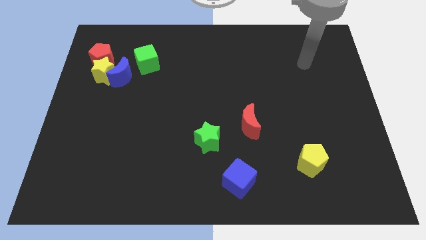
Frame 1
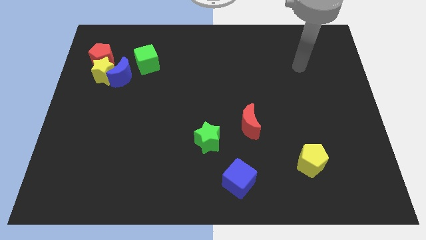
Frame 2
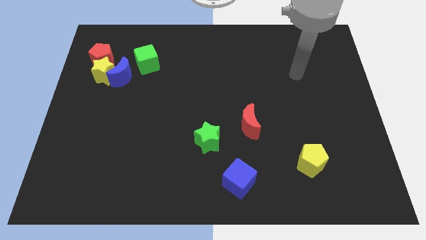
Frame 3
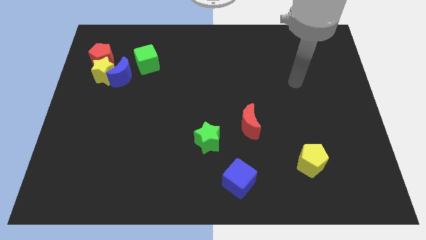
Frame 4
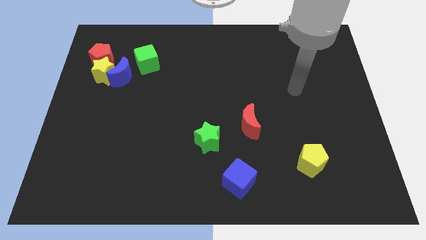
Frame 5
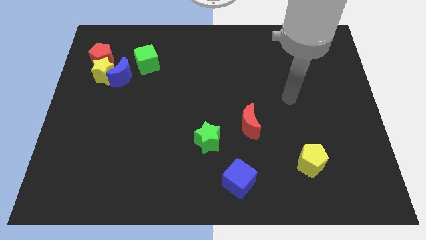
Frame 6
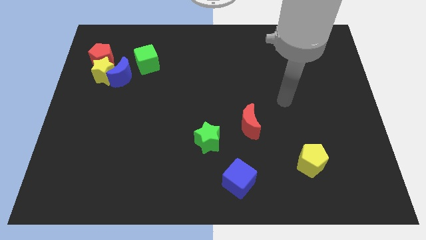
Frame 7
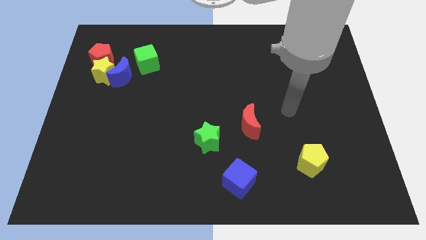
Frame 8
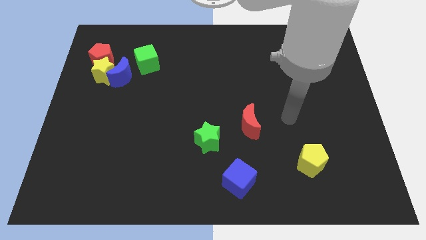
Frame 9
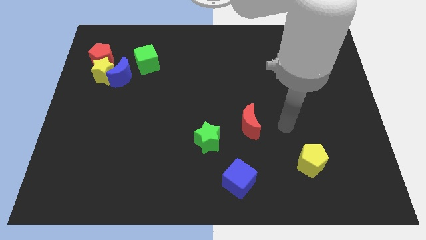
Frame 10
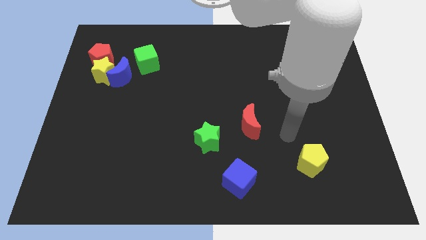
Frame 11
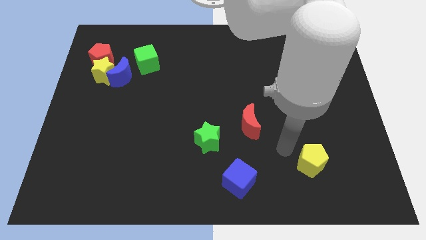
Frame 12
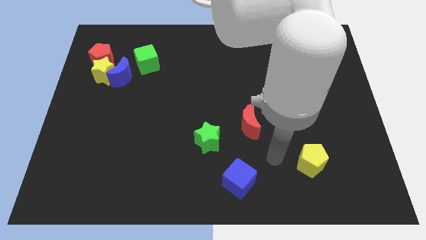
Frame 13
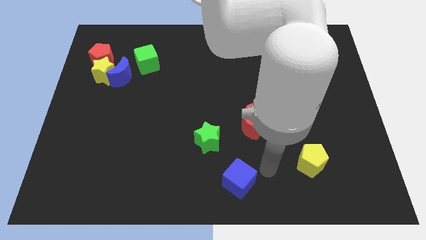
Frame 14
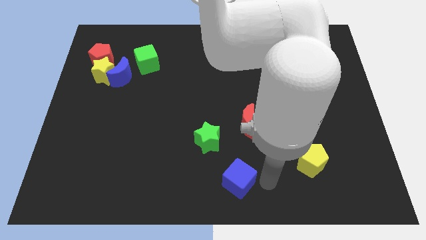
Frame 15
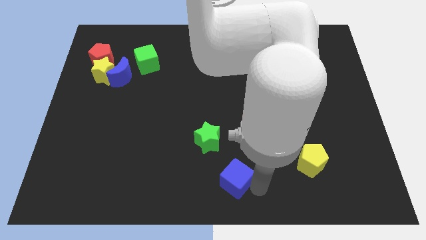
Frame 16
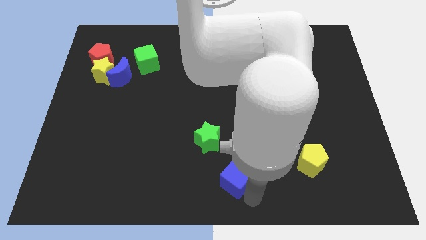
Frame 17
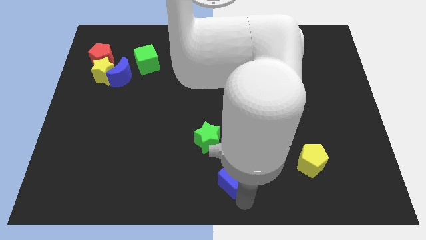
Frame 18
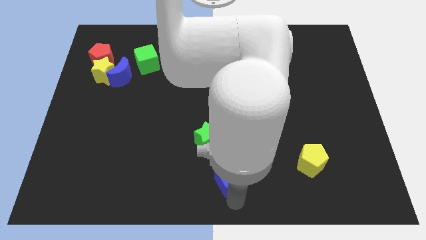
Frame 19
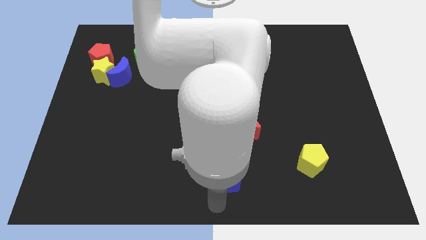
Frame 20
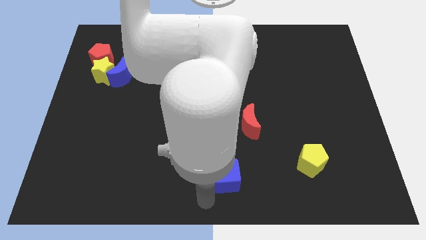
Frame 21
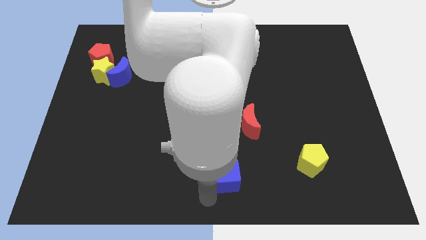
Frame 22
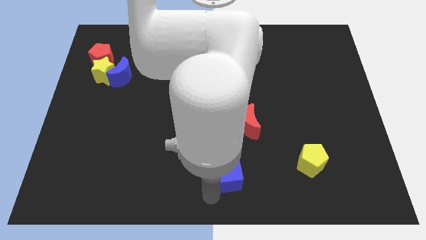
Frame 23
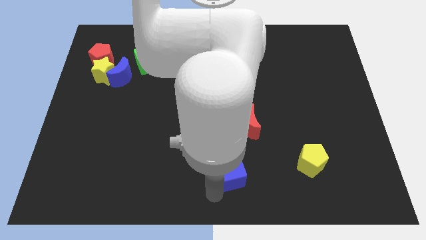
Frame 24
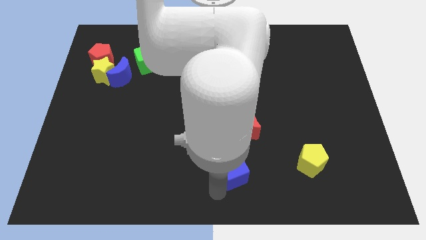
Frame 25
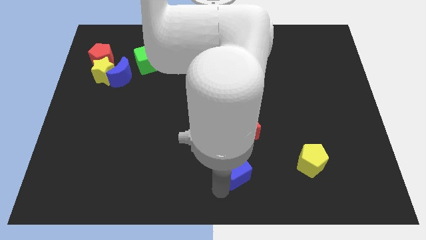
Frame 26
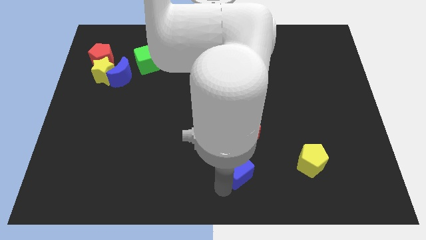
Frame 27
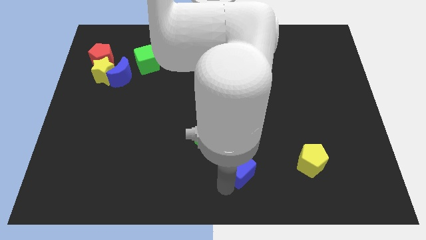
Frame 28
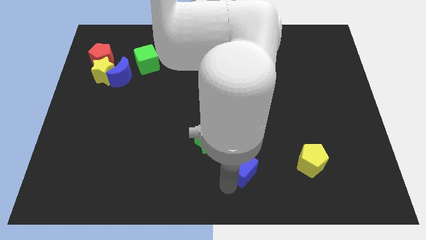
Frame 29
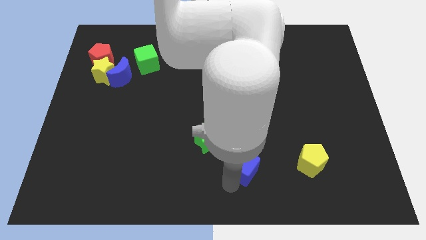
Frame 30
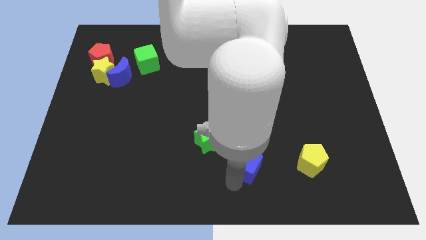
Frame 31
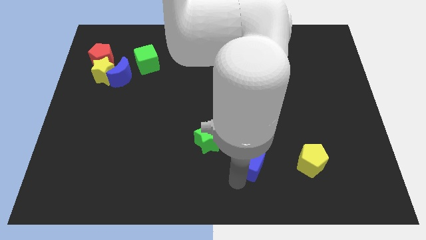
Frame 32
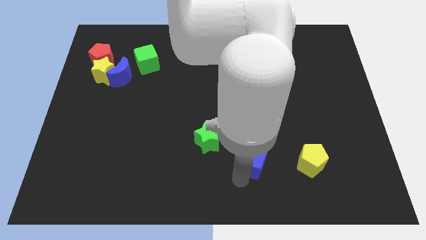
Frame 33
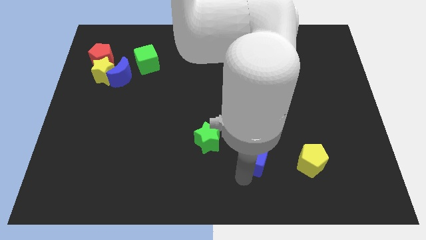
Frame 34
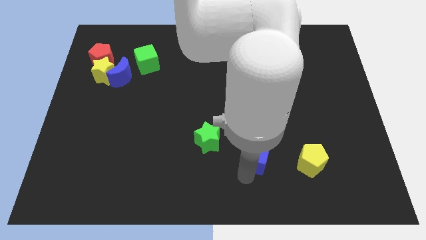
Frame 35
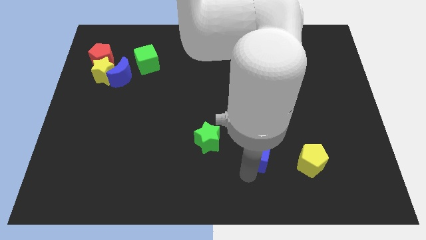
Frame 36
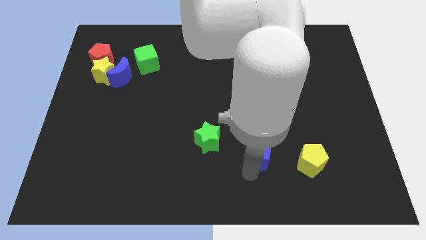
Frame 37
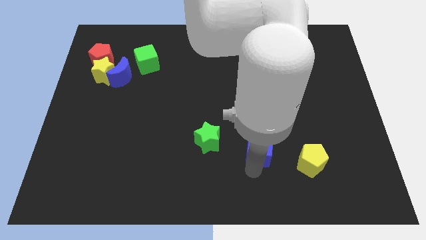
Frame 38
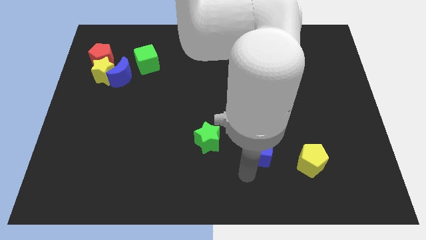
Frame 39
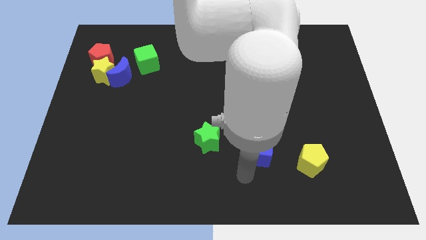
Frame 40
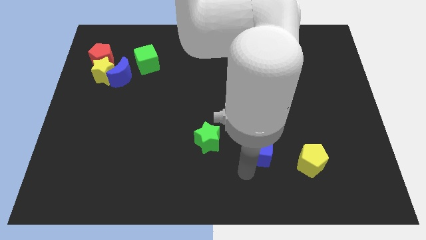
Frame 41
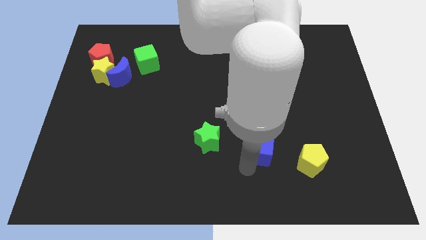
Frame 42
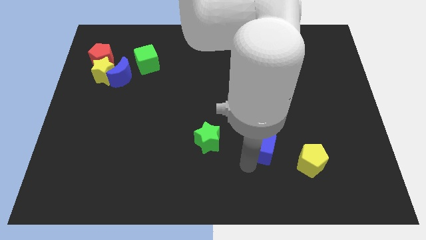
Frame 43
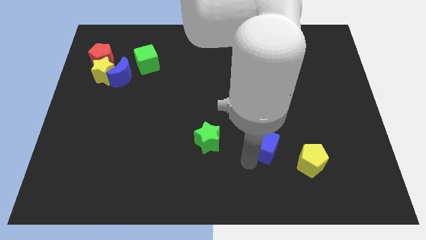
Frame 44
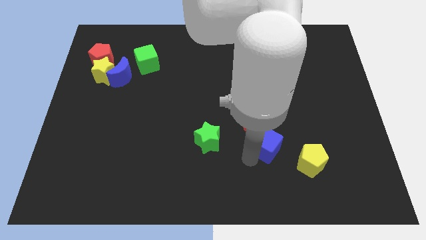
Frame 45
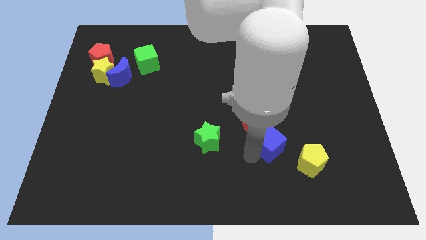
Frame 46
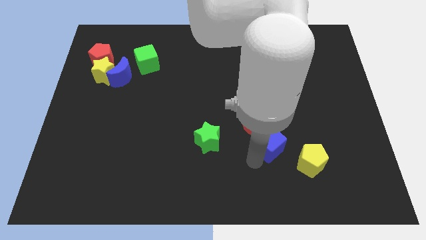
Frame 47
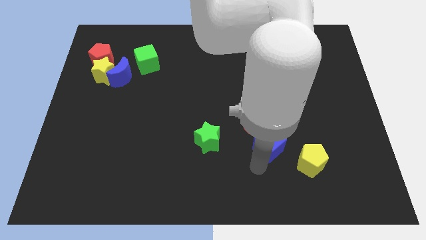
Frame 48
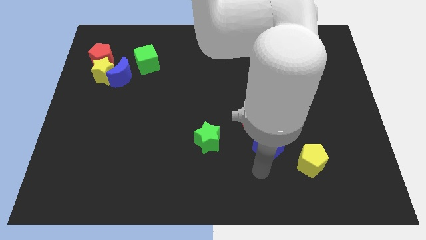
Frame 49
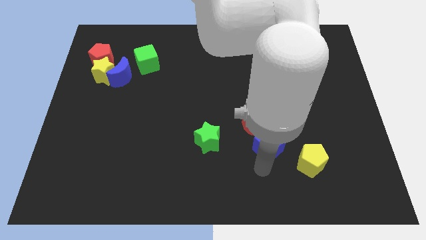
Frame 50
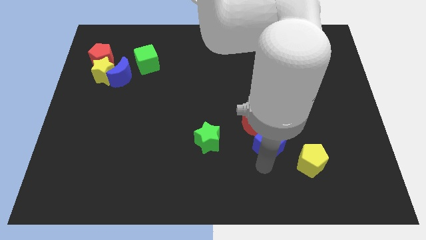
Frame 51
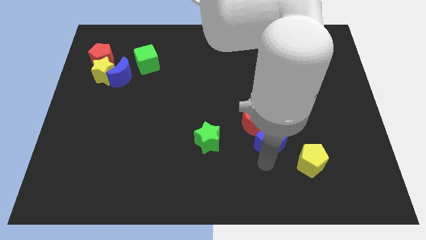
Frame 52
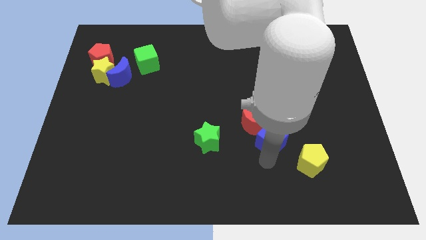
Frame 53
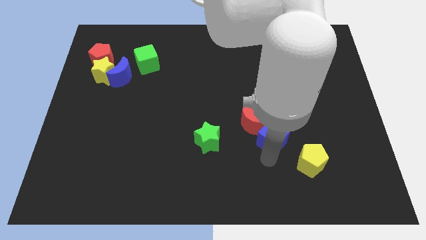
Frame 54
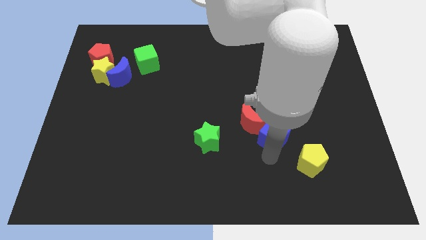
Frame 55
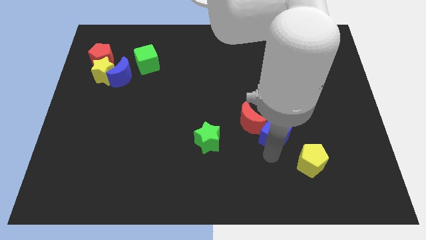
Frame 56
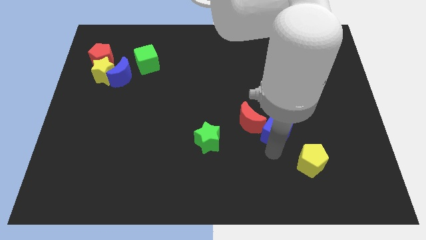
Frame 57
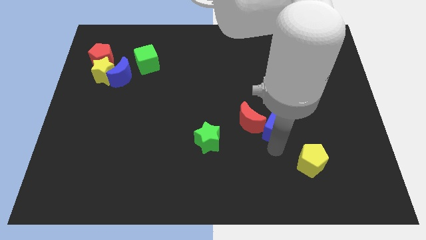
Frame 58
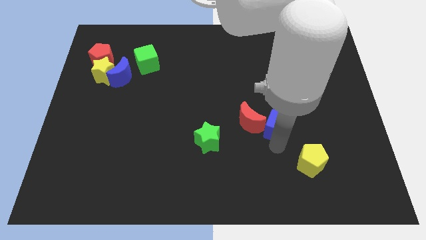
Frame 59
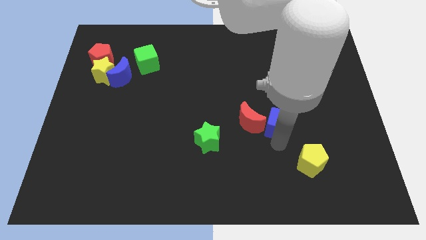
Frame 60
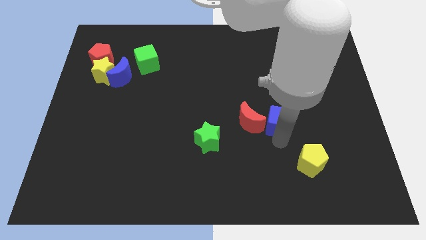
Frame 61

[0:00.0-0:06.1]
slide the blue cube to the top right side of the red moon
